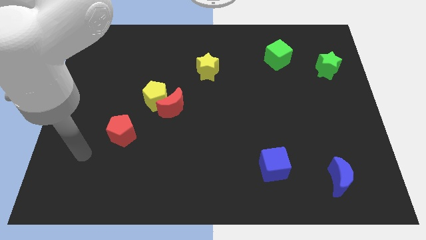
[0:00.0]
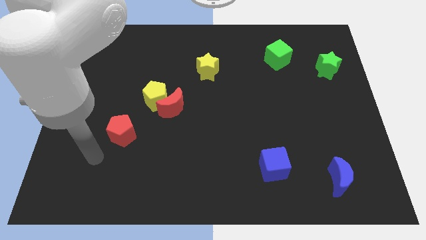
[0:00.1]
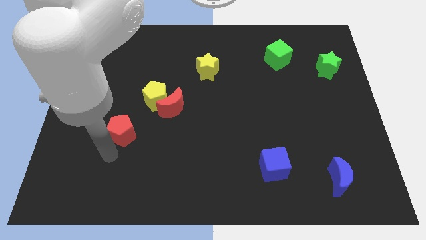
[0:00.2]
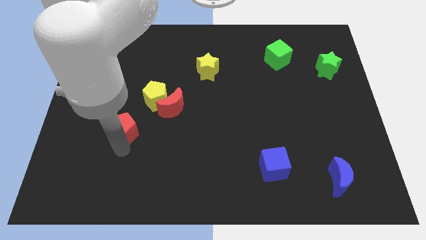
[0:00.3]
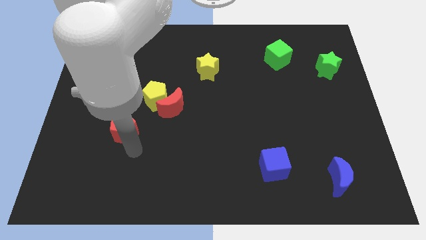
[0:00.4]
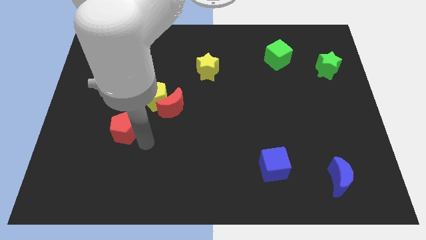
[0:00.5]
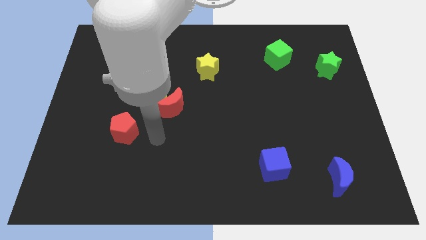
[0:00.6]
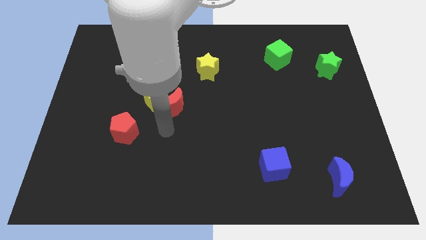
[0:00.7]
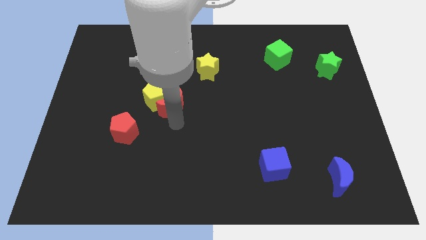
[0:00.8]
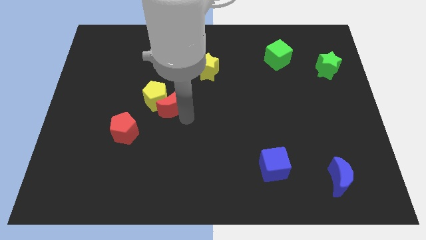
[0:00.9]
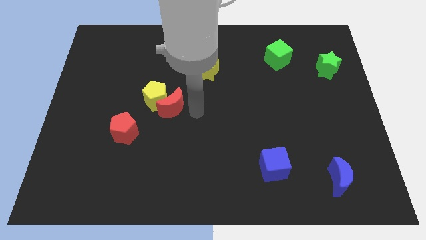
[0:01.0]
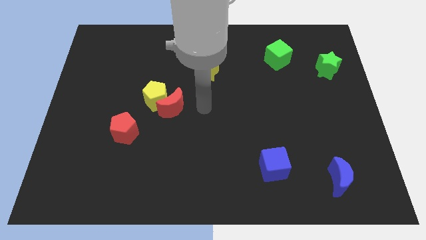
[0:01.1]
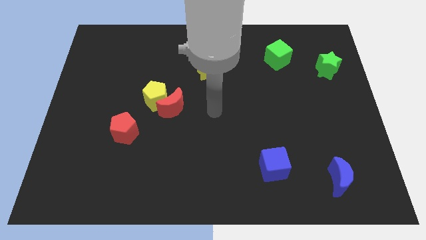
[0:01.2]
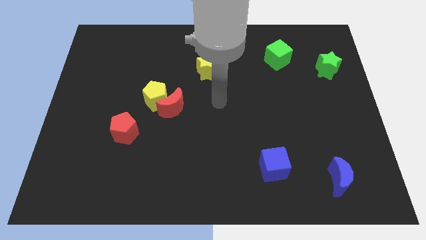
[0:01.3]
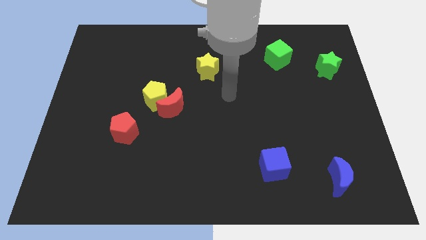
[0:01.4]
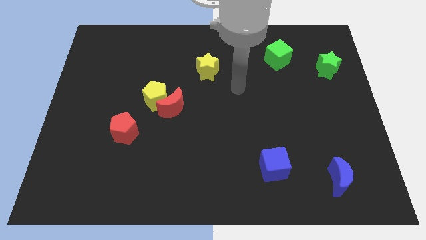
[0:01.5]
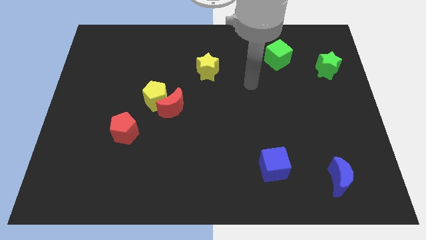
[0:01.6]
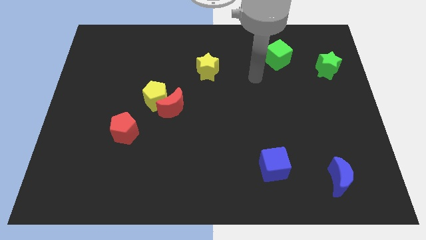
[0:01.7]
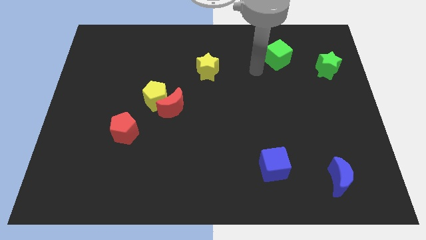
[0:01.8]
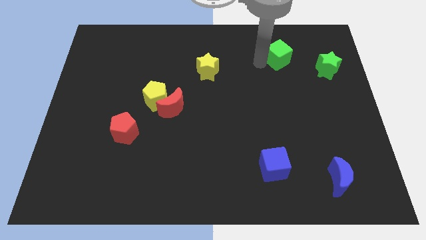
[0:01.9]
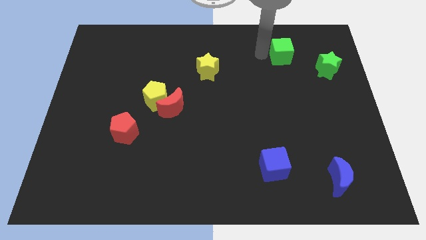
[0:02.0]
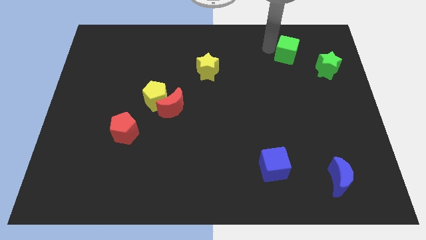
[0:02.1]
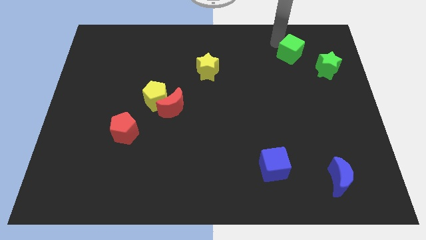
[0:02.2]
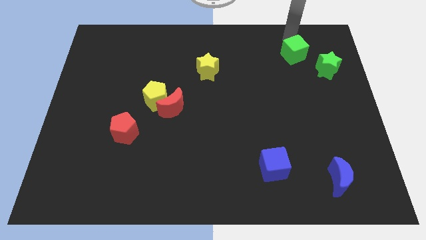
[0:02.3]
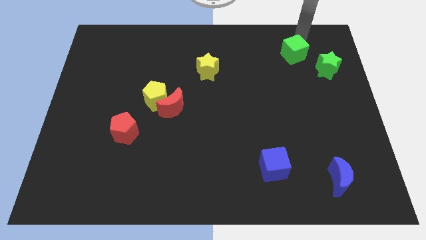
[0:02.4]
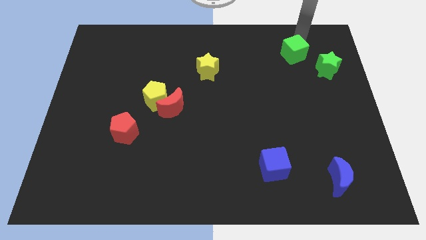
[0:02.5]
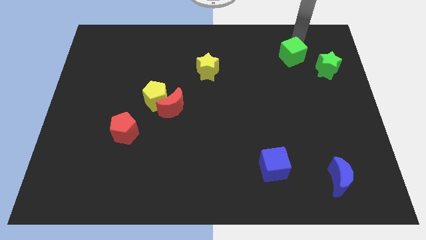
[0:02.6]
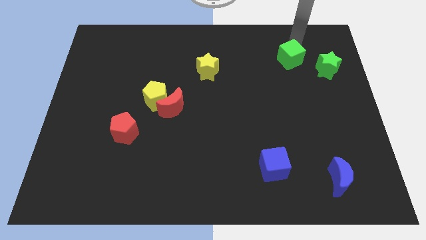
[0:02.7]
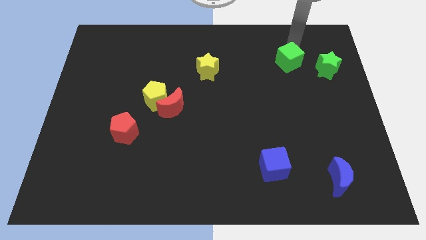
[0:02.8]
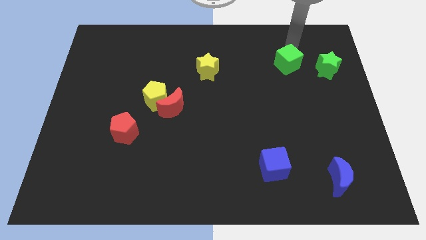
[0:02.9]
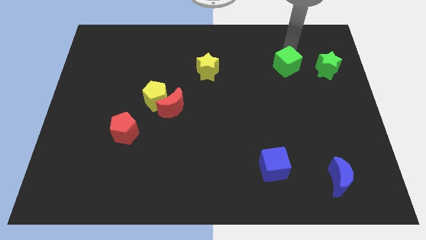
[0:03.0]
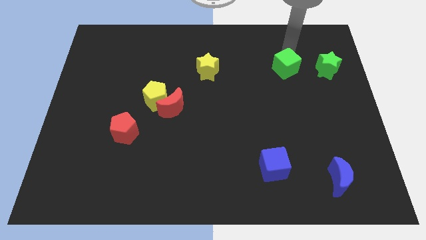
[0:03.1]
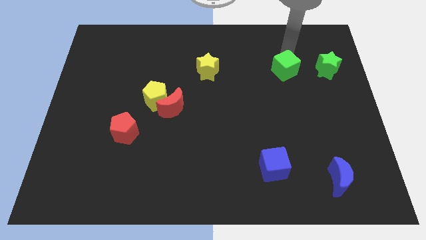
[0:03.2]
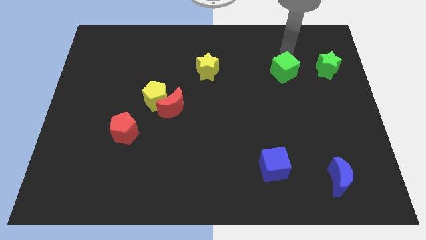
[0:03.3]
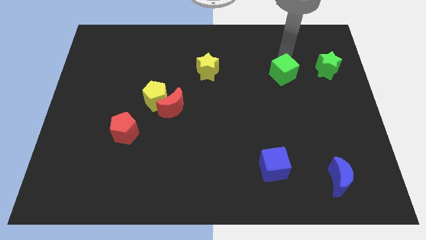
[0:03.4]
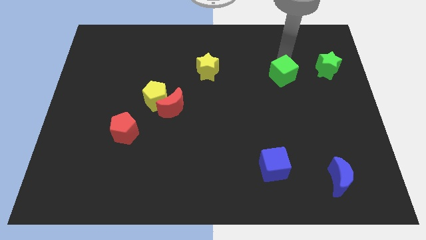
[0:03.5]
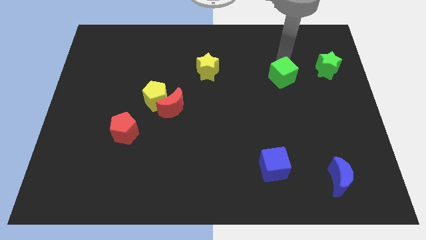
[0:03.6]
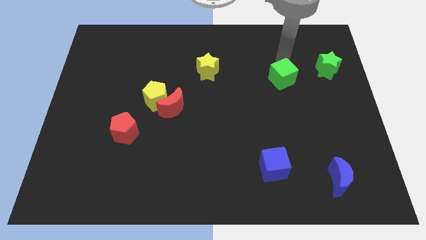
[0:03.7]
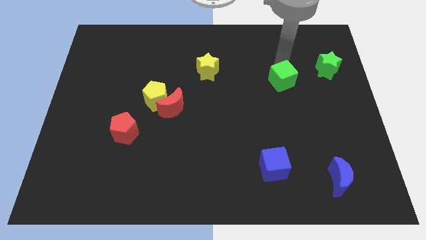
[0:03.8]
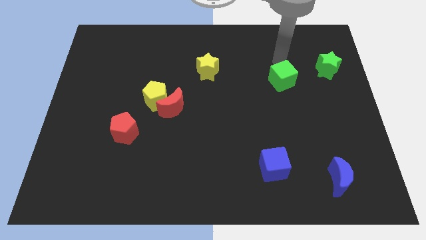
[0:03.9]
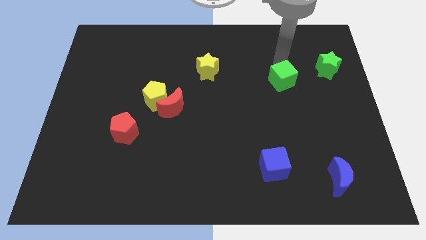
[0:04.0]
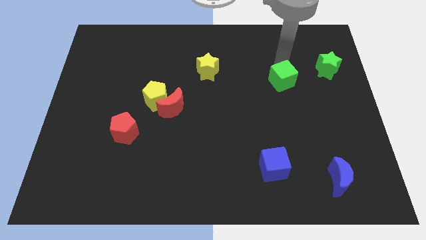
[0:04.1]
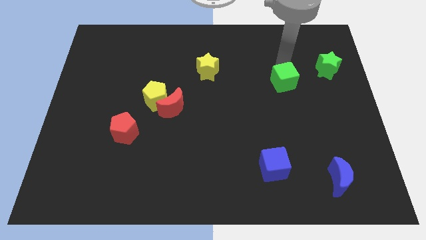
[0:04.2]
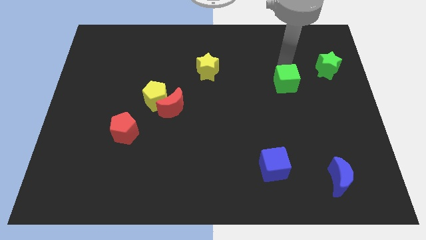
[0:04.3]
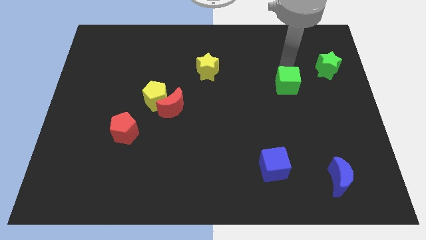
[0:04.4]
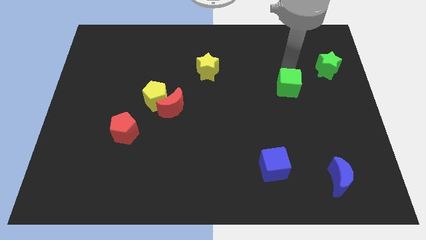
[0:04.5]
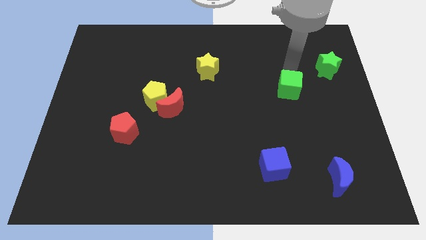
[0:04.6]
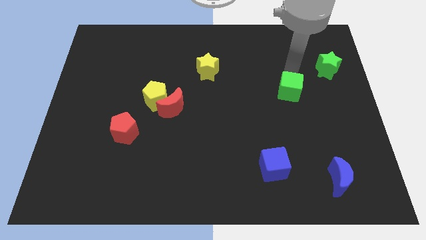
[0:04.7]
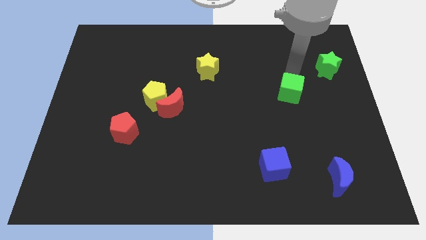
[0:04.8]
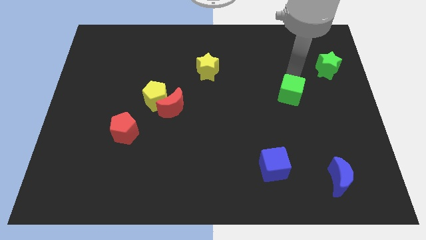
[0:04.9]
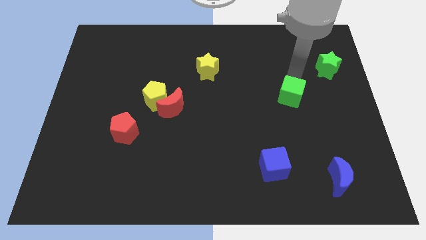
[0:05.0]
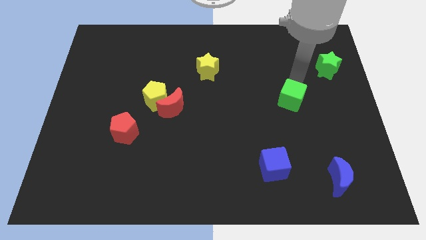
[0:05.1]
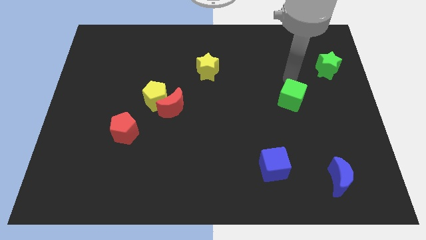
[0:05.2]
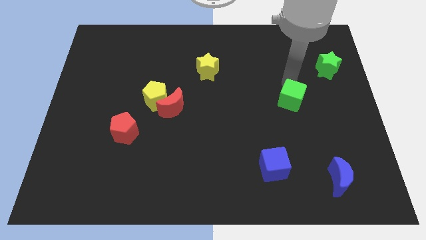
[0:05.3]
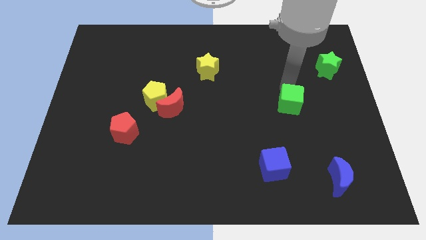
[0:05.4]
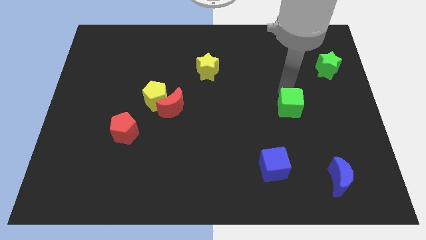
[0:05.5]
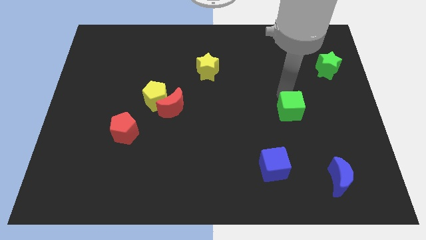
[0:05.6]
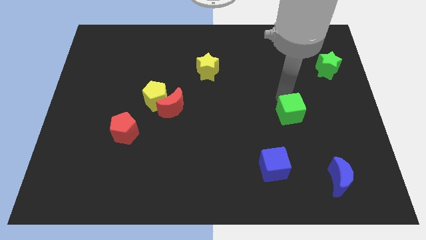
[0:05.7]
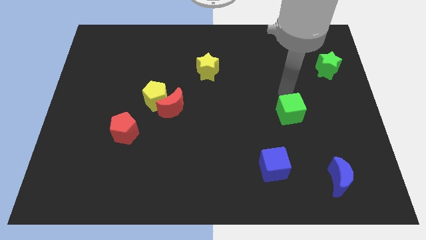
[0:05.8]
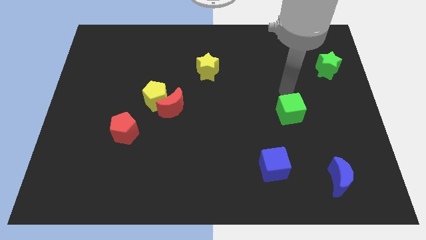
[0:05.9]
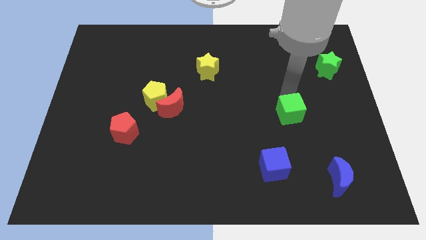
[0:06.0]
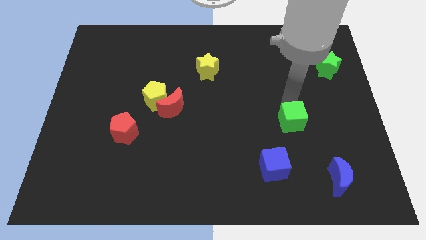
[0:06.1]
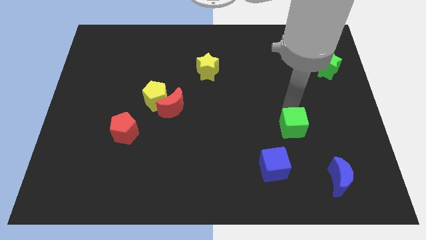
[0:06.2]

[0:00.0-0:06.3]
put the green cube to the top right side of the blue cube

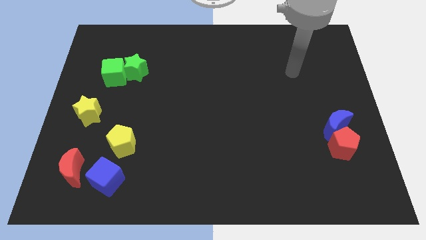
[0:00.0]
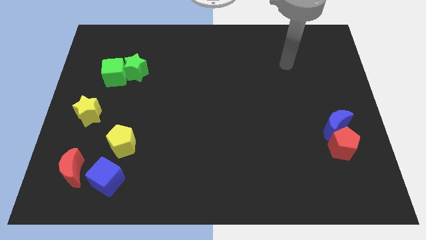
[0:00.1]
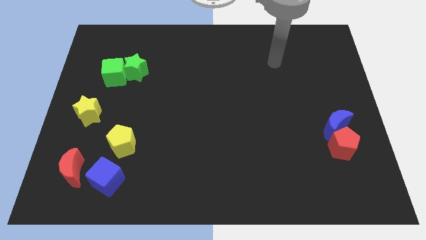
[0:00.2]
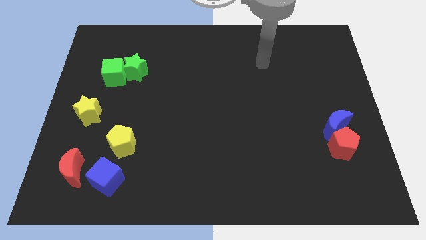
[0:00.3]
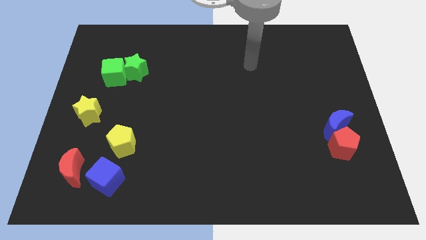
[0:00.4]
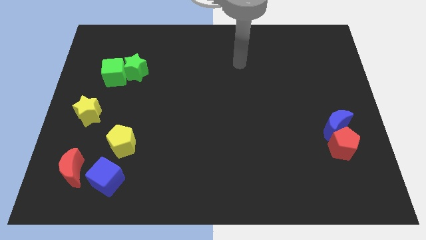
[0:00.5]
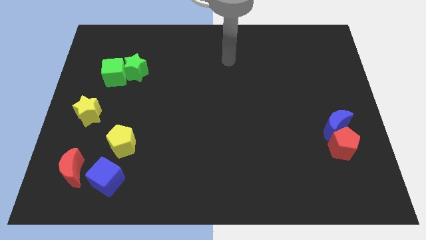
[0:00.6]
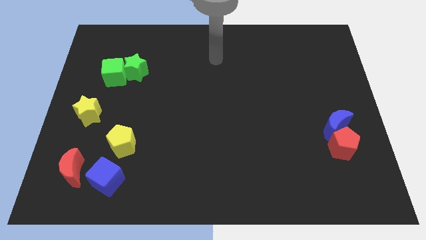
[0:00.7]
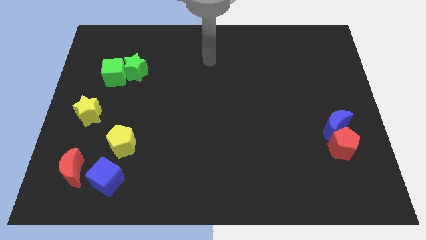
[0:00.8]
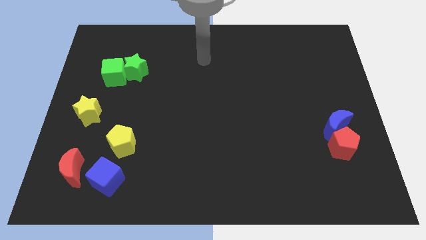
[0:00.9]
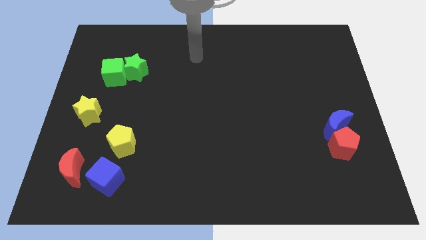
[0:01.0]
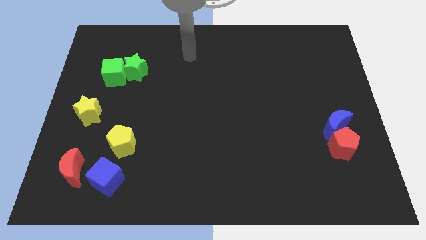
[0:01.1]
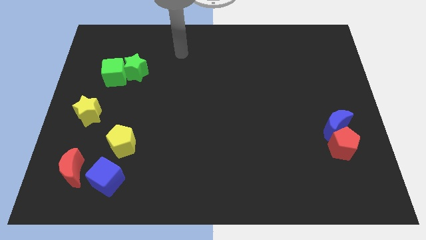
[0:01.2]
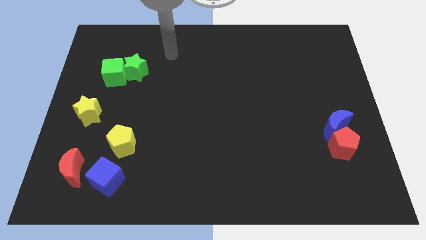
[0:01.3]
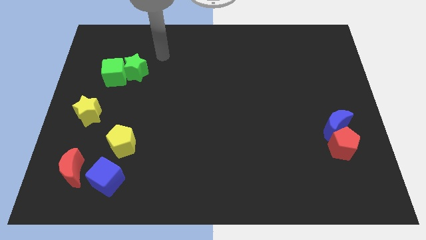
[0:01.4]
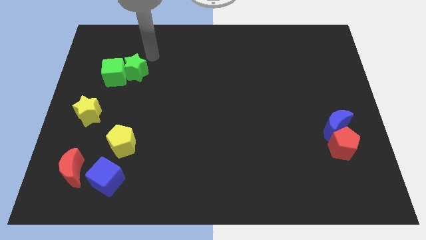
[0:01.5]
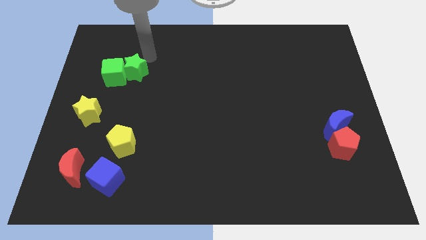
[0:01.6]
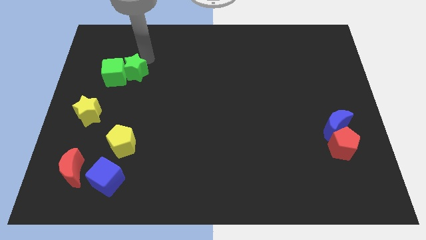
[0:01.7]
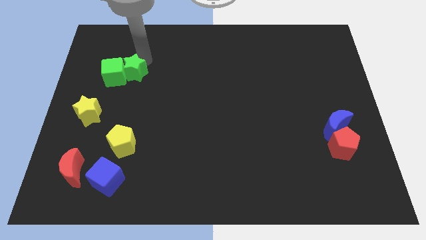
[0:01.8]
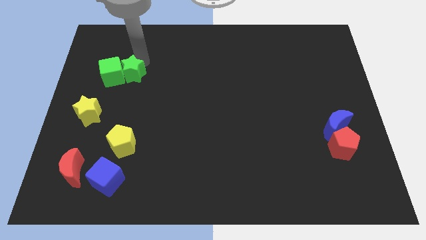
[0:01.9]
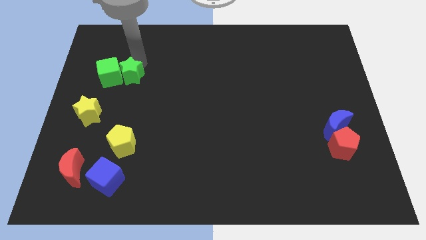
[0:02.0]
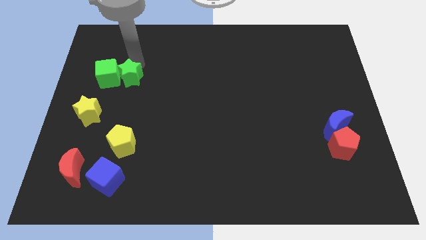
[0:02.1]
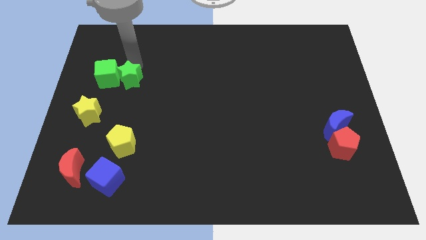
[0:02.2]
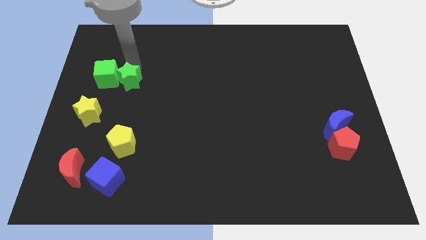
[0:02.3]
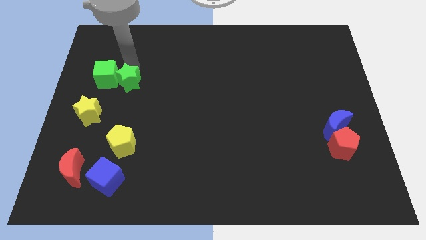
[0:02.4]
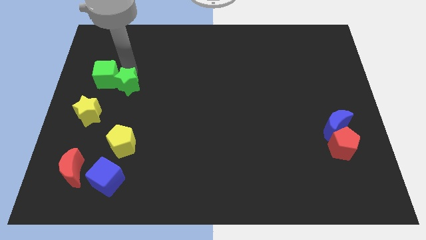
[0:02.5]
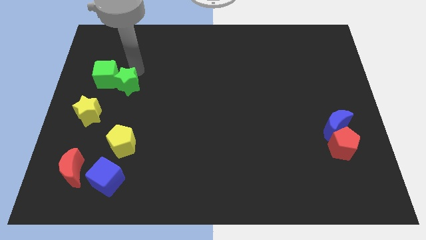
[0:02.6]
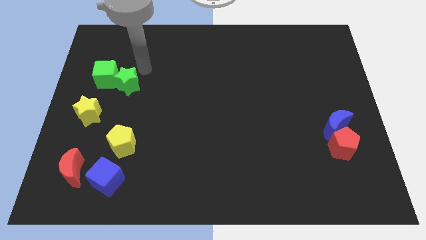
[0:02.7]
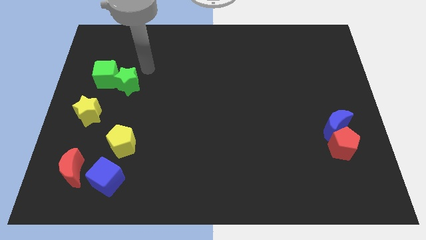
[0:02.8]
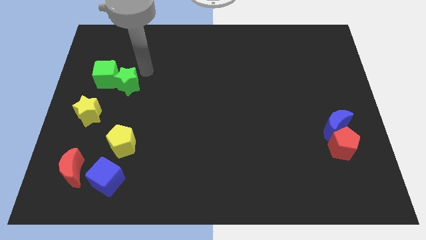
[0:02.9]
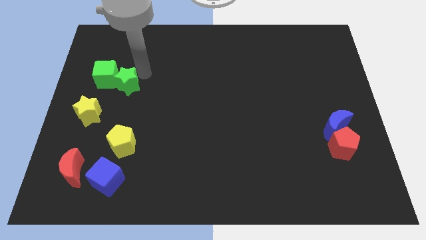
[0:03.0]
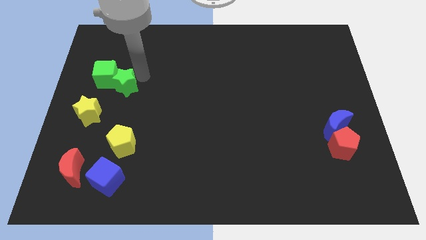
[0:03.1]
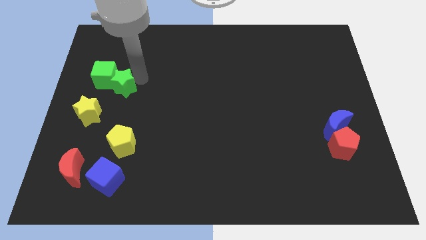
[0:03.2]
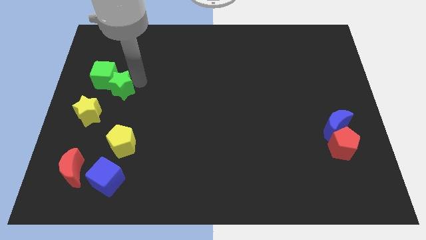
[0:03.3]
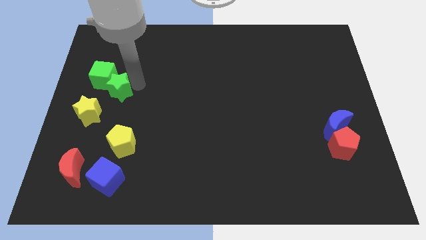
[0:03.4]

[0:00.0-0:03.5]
slide the green star to the bottom of the green cube
